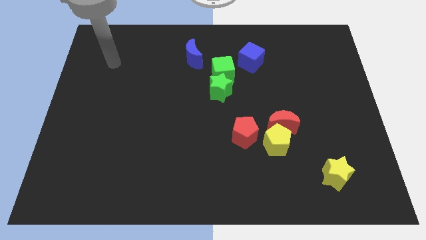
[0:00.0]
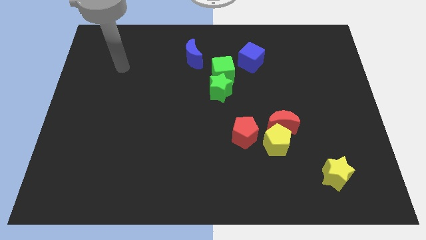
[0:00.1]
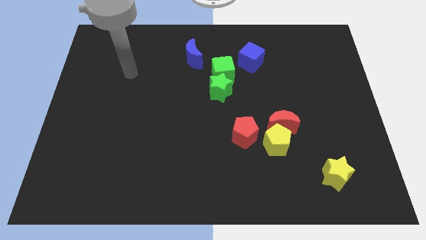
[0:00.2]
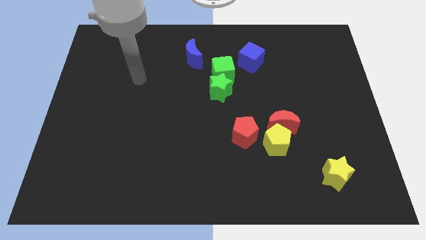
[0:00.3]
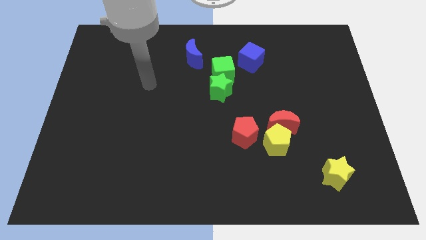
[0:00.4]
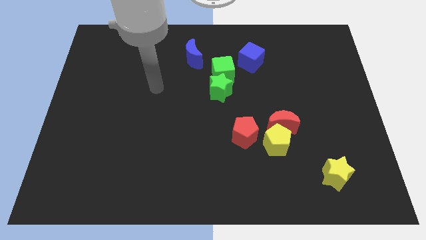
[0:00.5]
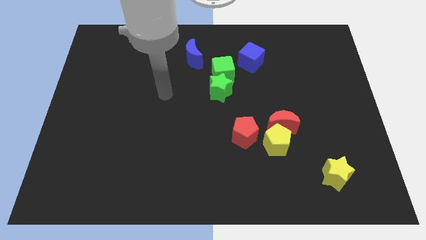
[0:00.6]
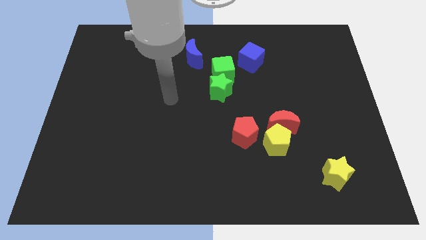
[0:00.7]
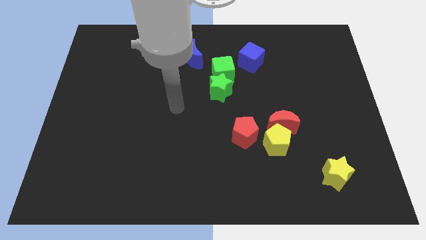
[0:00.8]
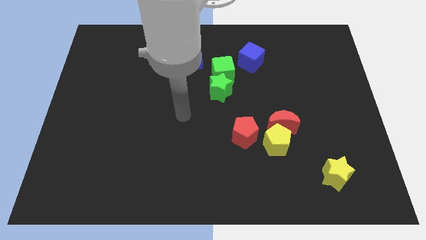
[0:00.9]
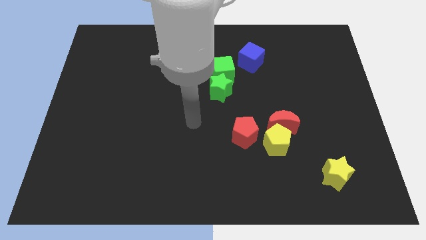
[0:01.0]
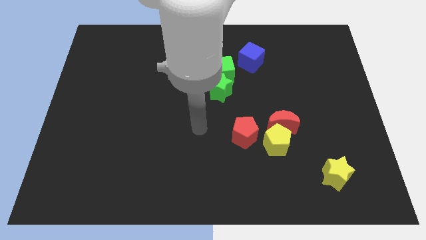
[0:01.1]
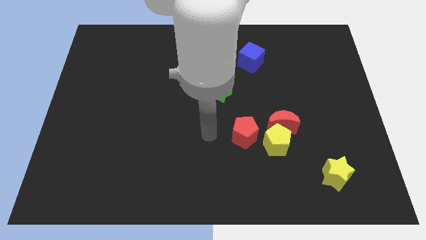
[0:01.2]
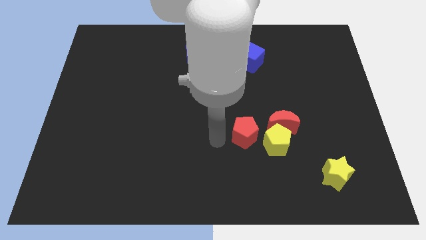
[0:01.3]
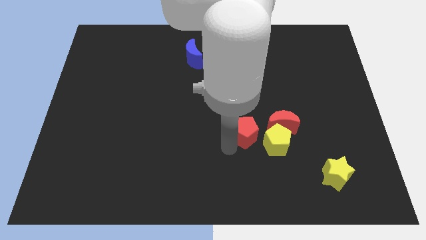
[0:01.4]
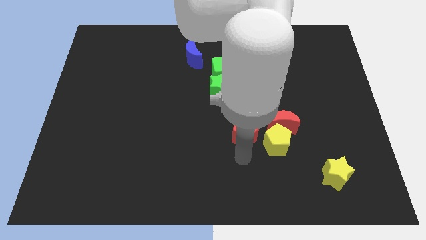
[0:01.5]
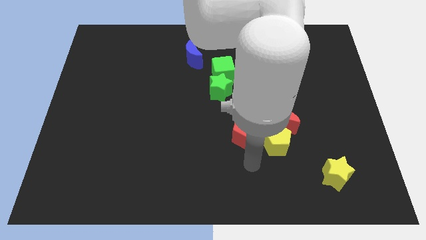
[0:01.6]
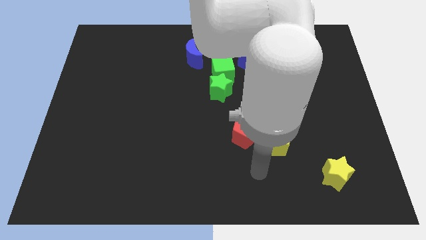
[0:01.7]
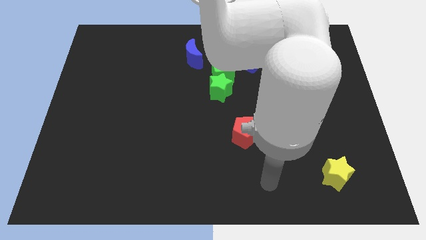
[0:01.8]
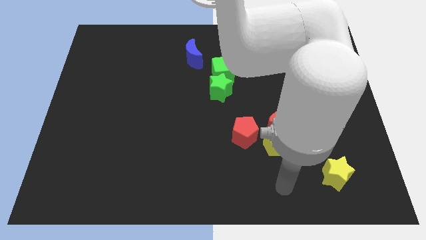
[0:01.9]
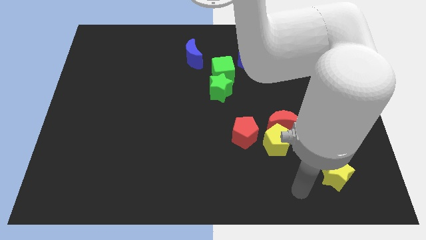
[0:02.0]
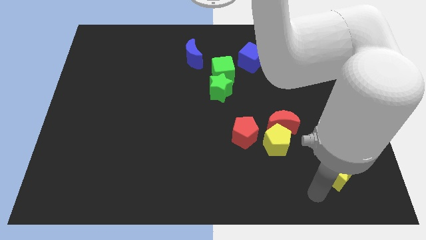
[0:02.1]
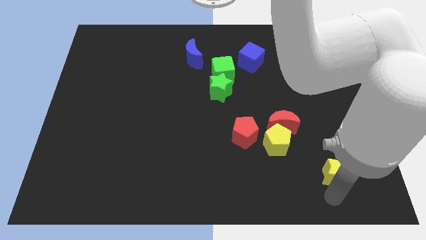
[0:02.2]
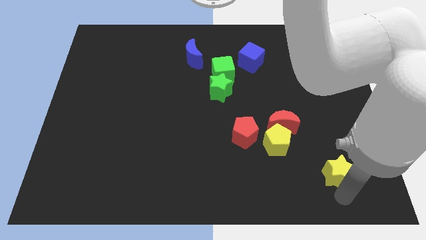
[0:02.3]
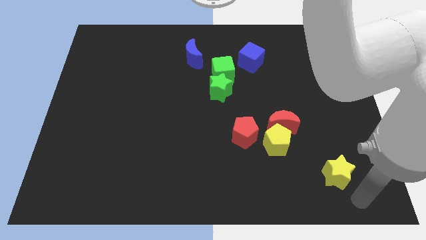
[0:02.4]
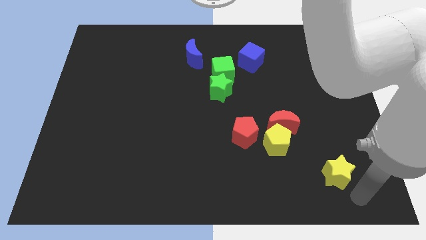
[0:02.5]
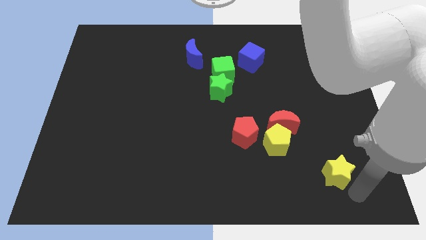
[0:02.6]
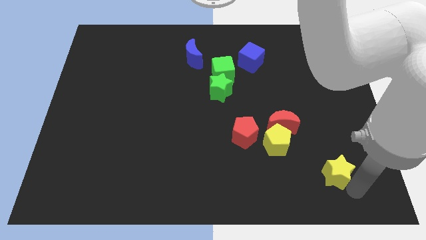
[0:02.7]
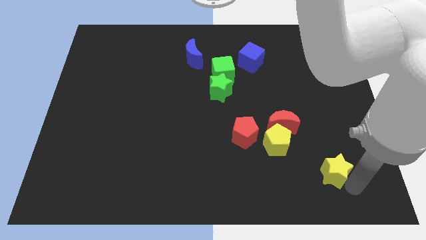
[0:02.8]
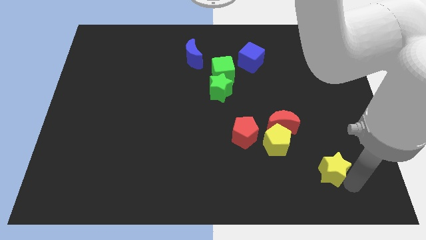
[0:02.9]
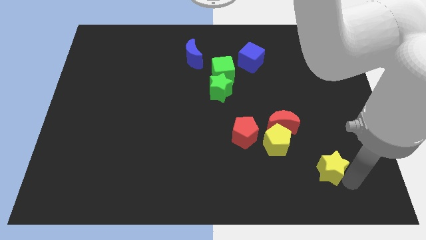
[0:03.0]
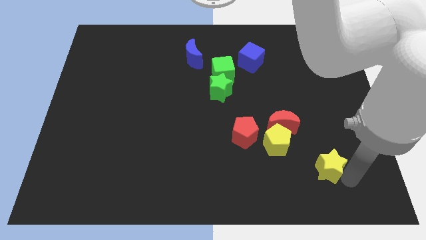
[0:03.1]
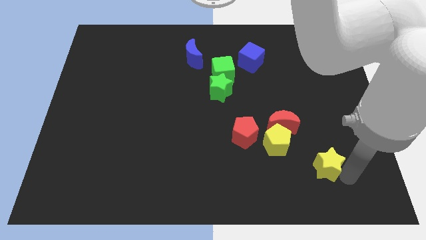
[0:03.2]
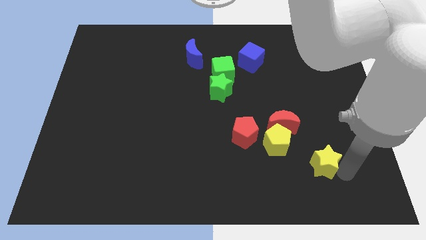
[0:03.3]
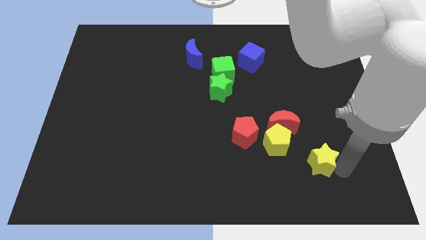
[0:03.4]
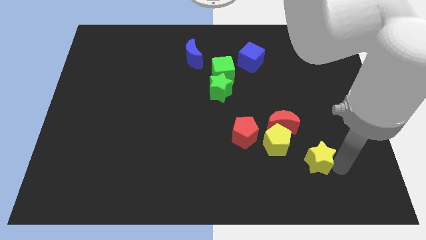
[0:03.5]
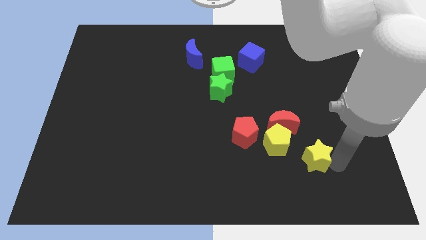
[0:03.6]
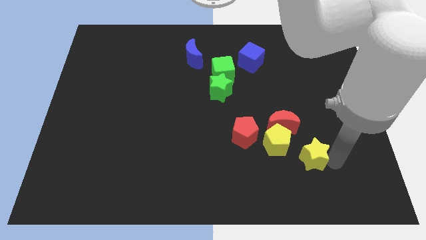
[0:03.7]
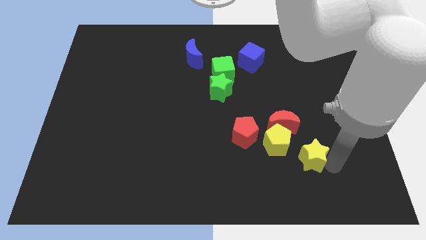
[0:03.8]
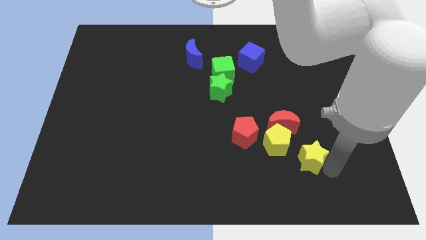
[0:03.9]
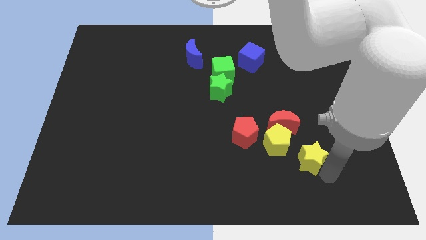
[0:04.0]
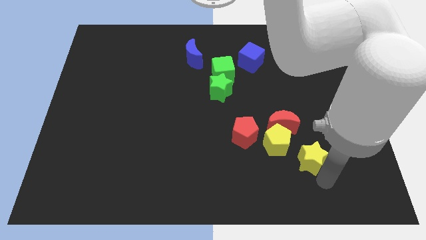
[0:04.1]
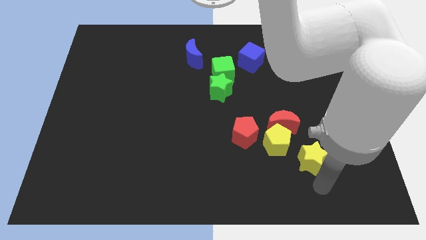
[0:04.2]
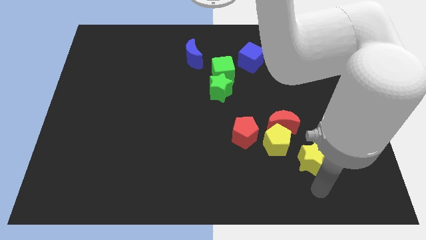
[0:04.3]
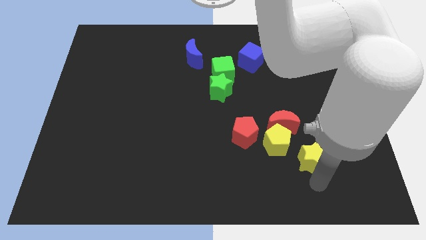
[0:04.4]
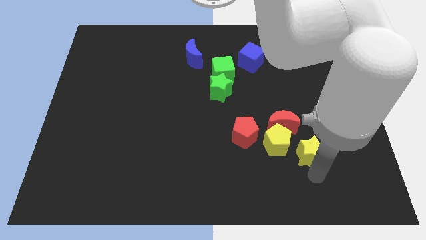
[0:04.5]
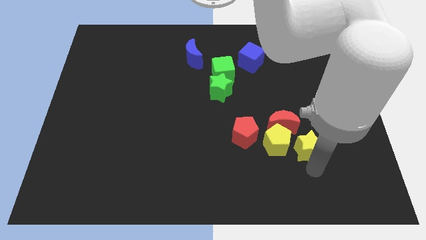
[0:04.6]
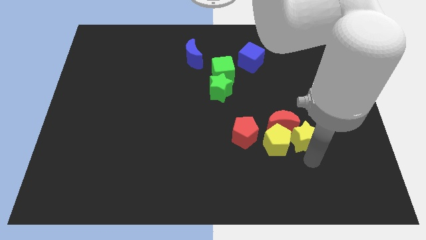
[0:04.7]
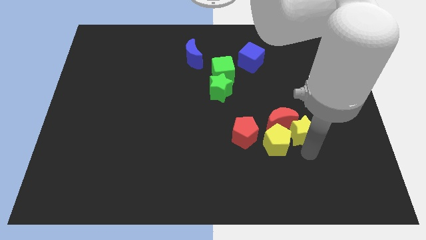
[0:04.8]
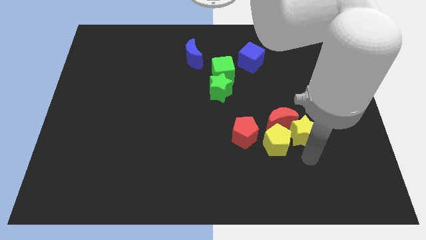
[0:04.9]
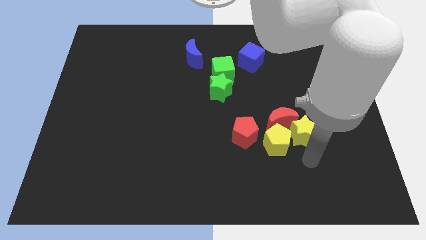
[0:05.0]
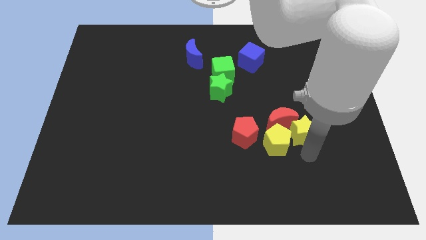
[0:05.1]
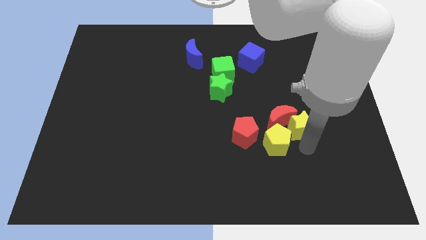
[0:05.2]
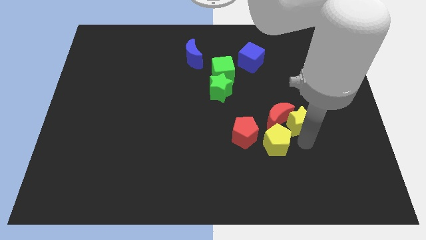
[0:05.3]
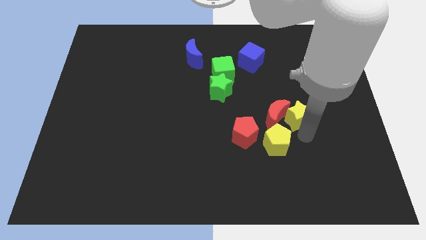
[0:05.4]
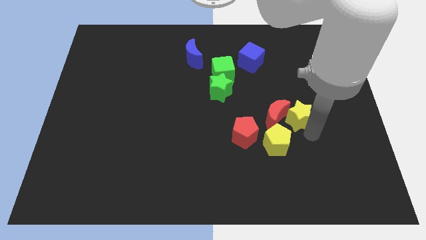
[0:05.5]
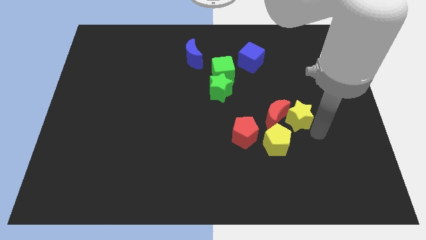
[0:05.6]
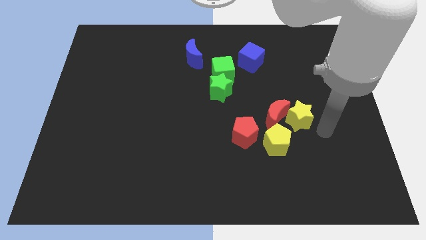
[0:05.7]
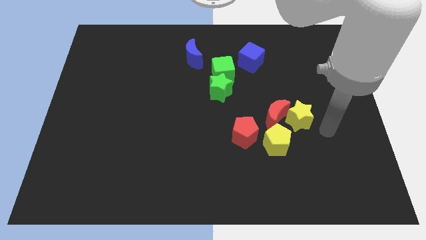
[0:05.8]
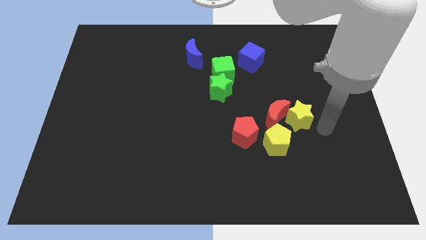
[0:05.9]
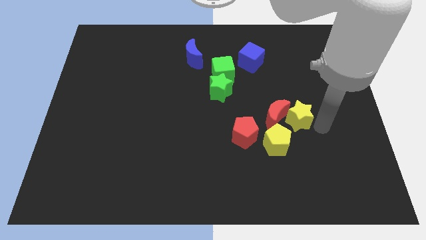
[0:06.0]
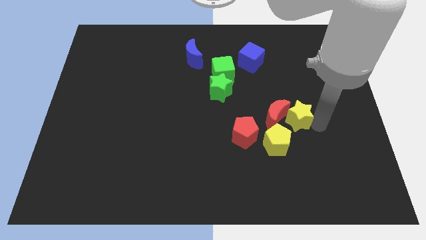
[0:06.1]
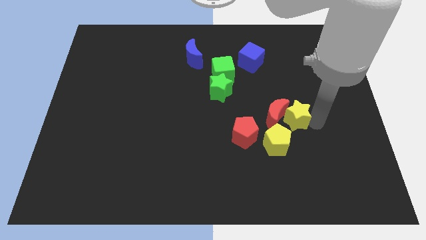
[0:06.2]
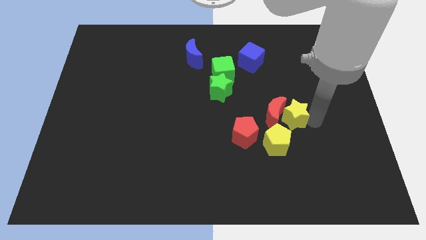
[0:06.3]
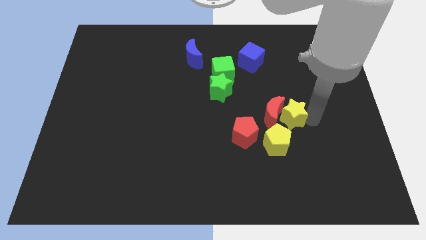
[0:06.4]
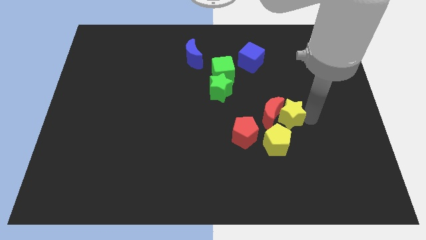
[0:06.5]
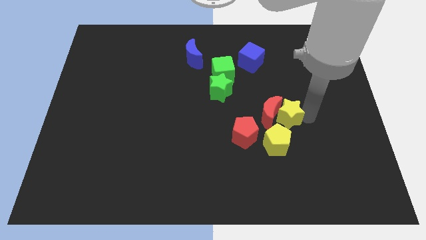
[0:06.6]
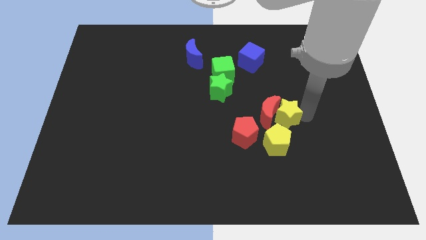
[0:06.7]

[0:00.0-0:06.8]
slide the yellow star diagonally up and to the right of the red pentagon
